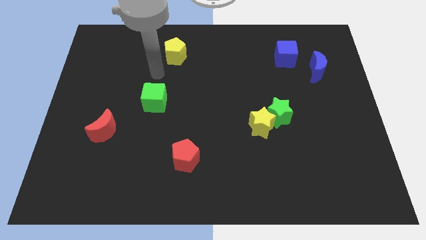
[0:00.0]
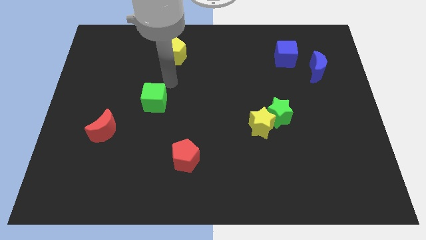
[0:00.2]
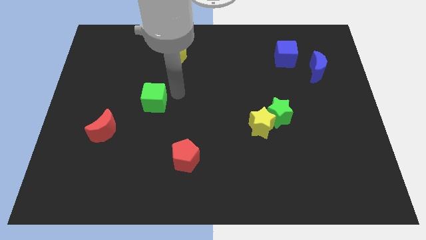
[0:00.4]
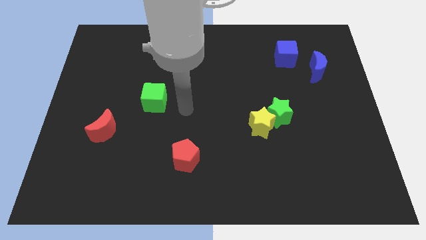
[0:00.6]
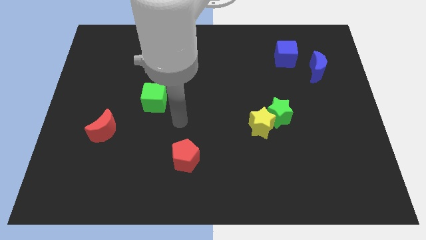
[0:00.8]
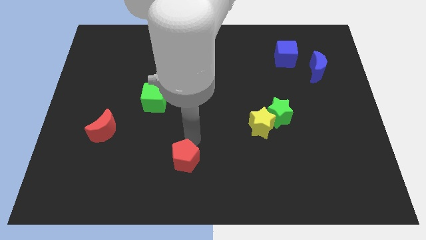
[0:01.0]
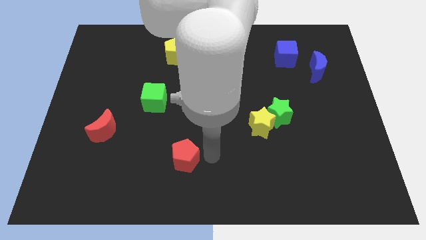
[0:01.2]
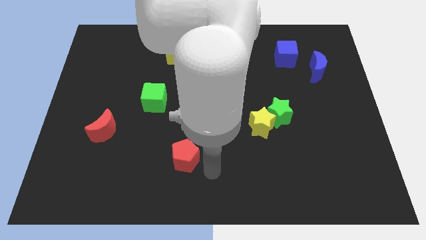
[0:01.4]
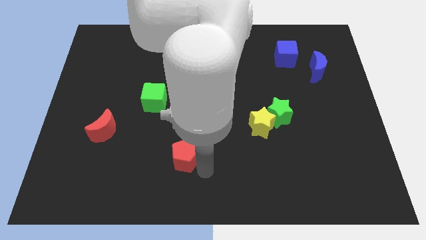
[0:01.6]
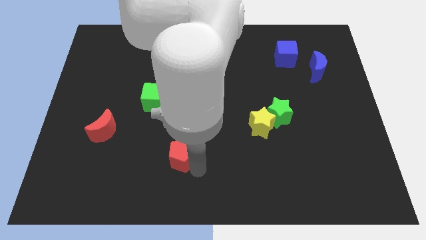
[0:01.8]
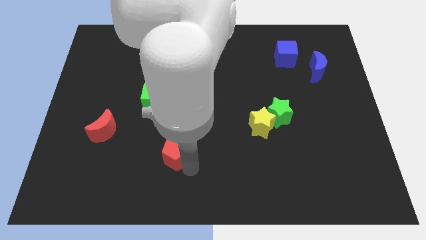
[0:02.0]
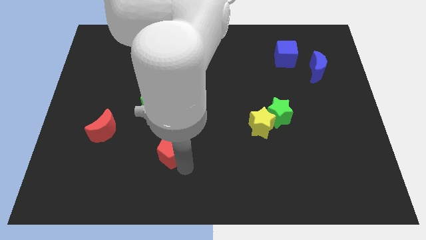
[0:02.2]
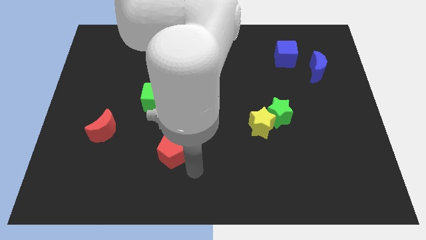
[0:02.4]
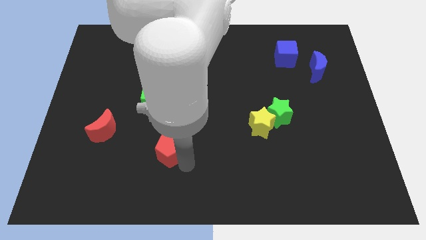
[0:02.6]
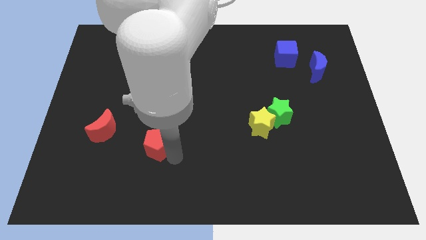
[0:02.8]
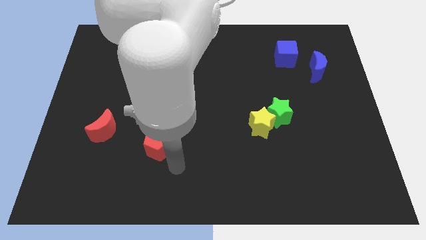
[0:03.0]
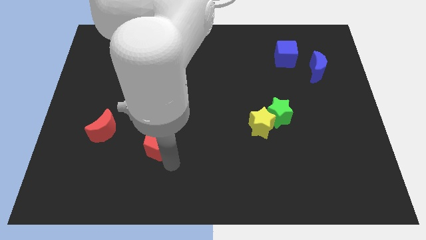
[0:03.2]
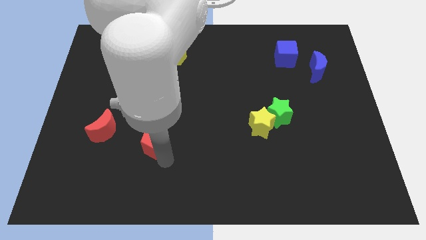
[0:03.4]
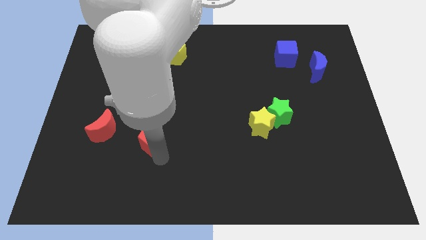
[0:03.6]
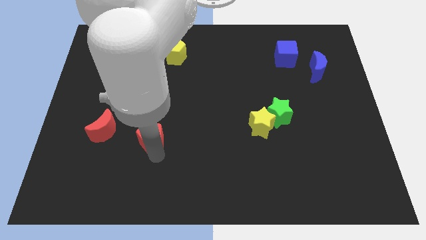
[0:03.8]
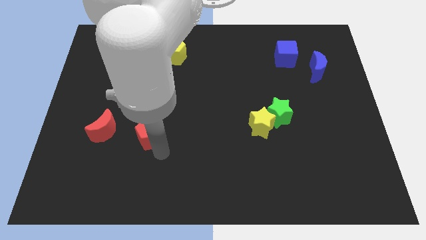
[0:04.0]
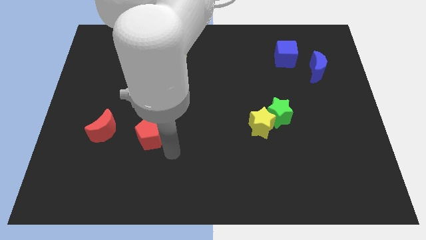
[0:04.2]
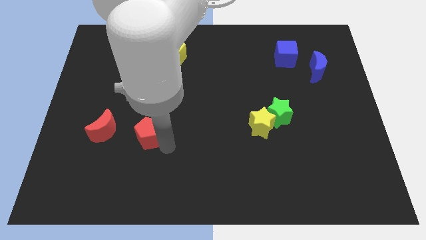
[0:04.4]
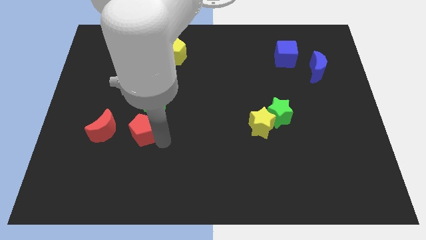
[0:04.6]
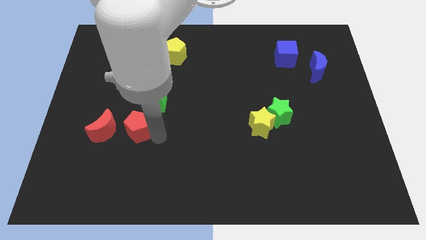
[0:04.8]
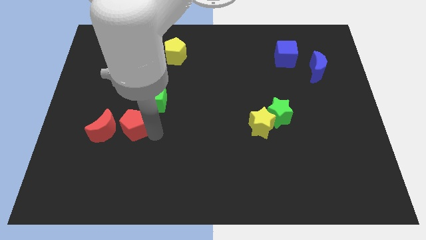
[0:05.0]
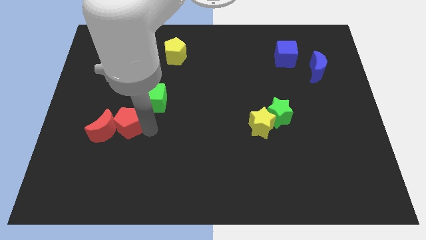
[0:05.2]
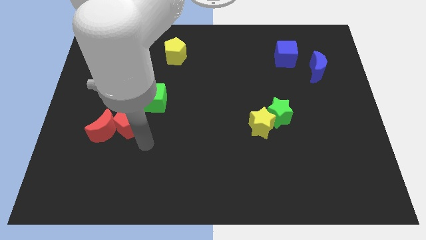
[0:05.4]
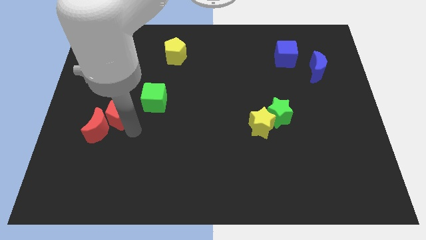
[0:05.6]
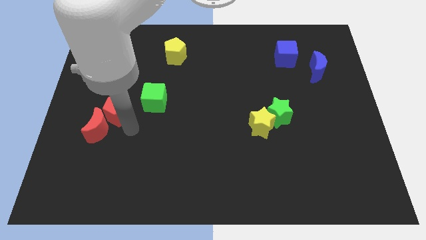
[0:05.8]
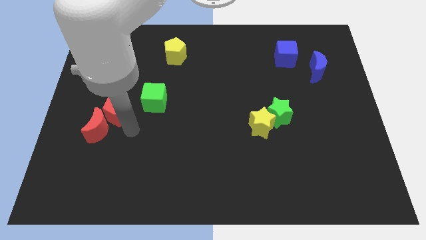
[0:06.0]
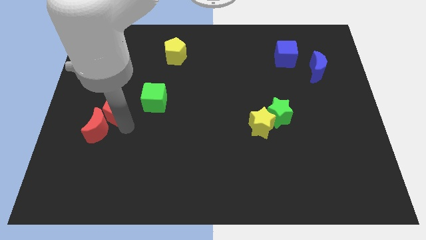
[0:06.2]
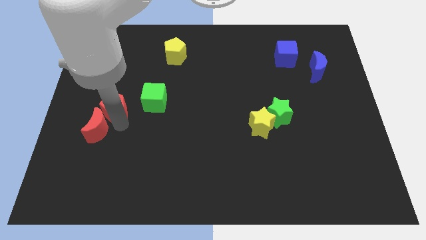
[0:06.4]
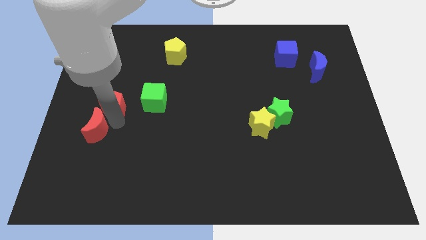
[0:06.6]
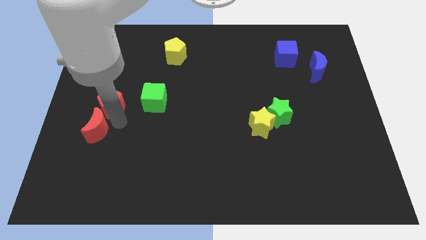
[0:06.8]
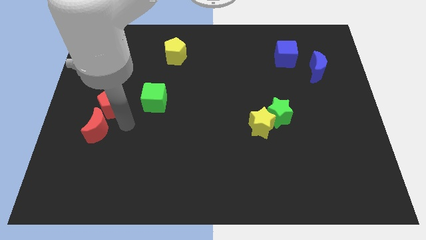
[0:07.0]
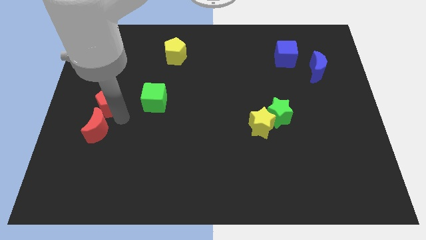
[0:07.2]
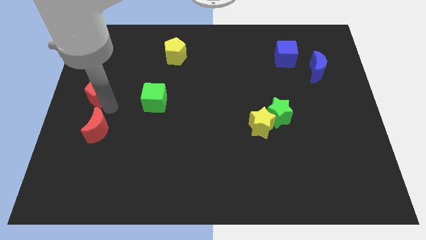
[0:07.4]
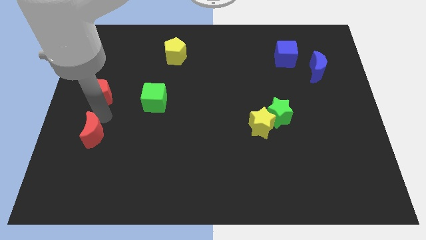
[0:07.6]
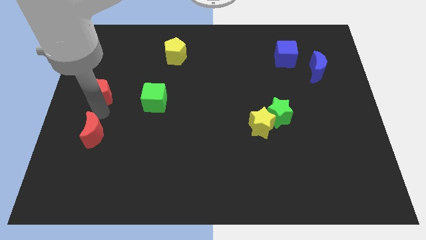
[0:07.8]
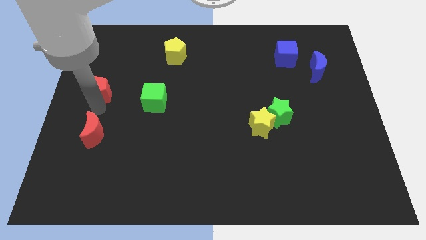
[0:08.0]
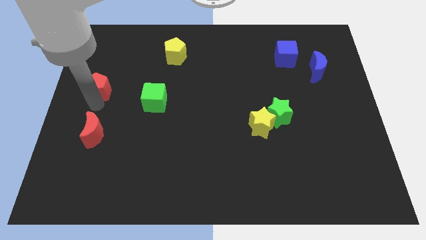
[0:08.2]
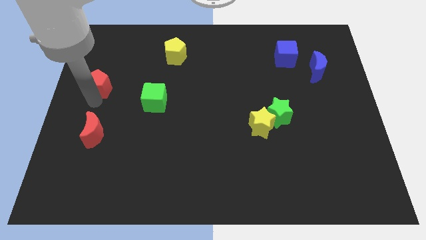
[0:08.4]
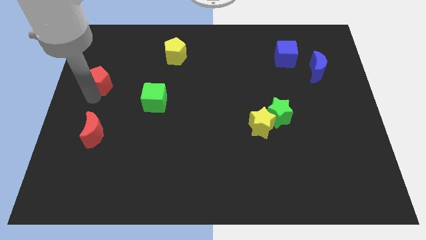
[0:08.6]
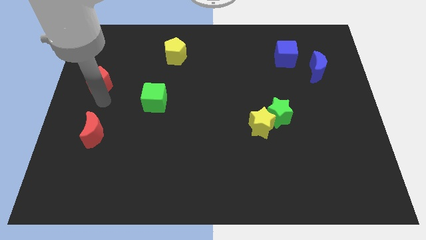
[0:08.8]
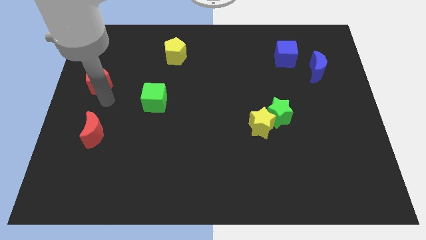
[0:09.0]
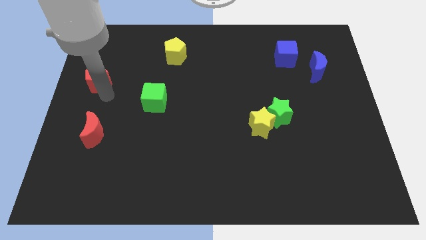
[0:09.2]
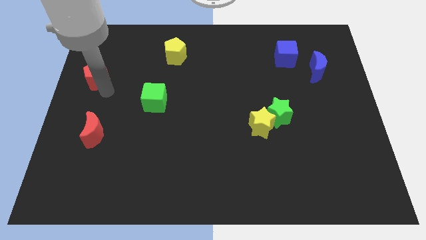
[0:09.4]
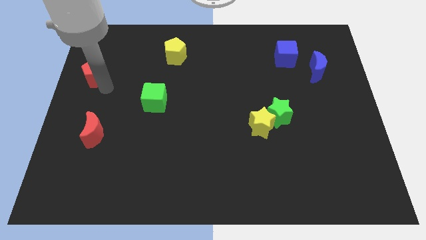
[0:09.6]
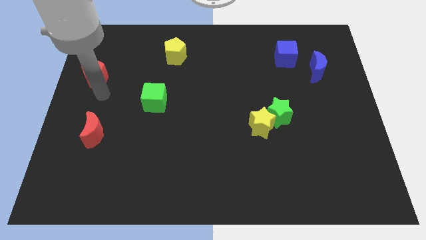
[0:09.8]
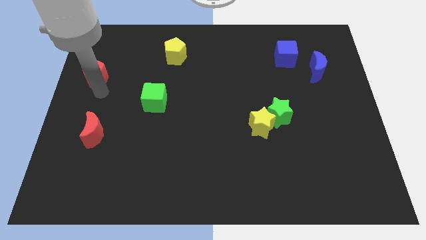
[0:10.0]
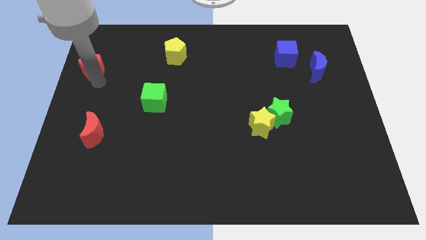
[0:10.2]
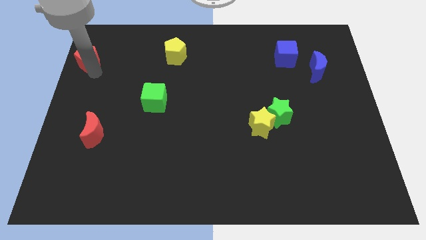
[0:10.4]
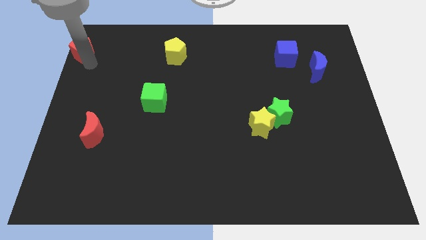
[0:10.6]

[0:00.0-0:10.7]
slide the red pentagon to the top left

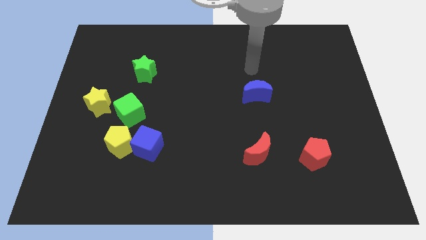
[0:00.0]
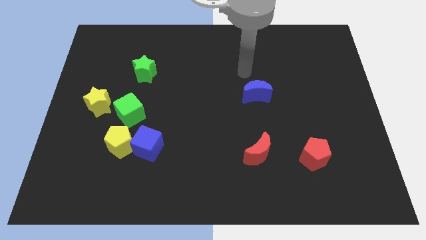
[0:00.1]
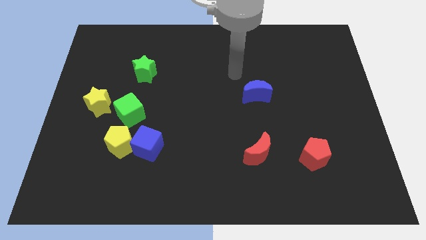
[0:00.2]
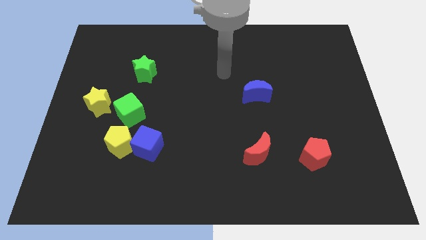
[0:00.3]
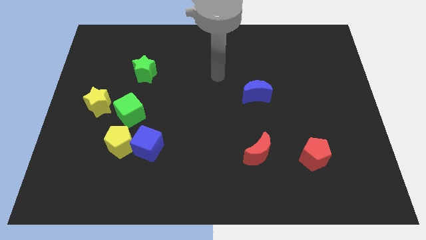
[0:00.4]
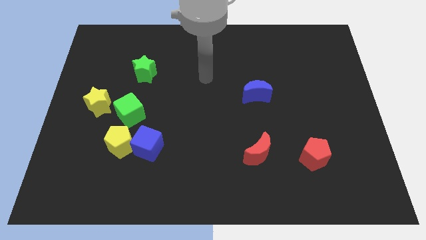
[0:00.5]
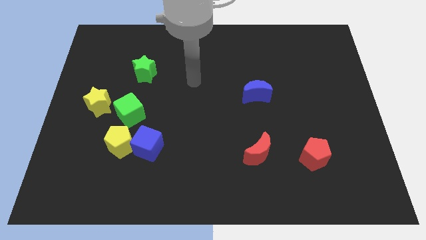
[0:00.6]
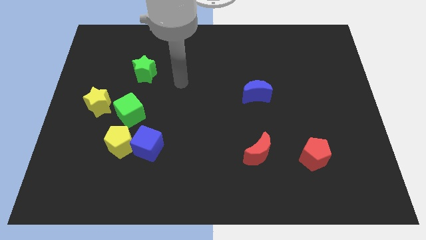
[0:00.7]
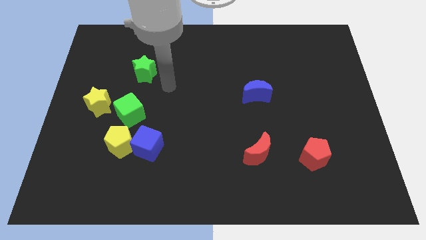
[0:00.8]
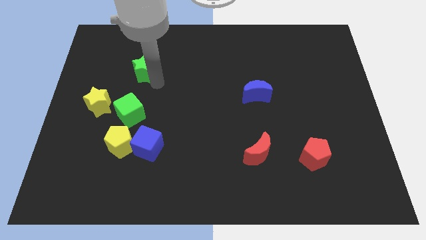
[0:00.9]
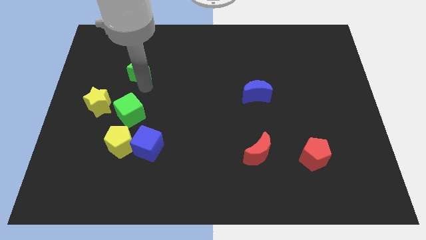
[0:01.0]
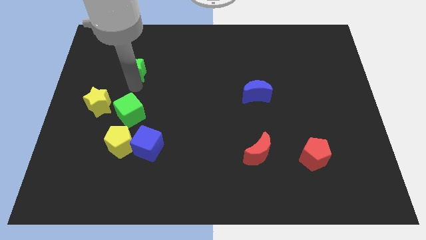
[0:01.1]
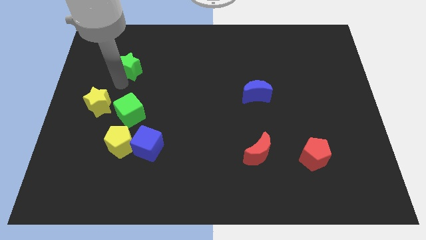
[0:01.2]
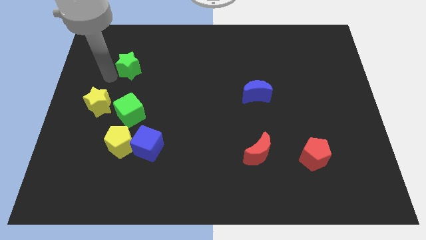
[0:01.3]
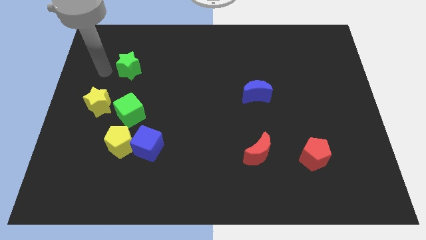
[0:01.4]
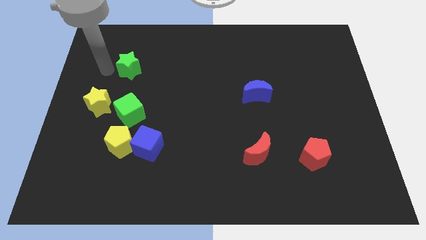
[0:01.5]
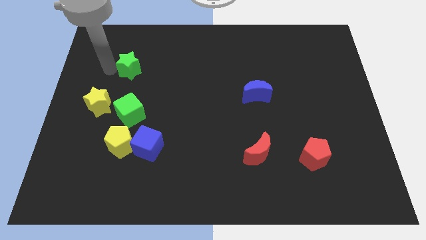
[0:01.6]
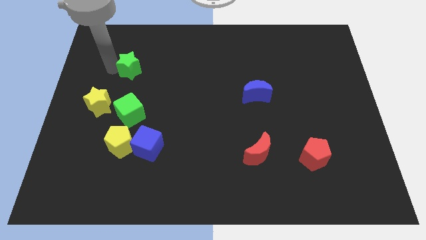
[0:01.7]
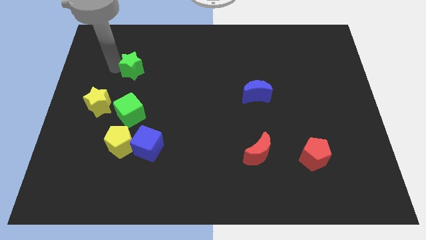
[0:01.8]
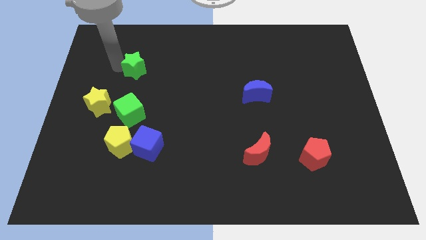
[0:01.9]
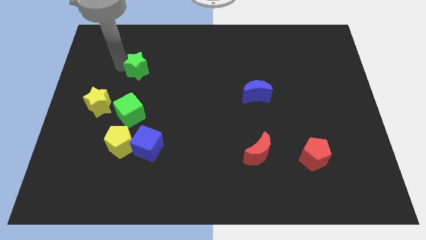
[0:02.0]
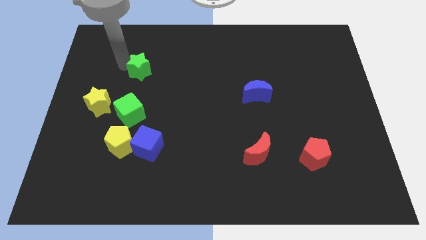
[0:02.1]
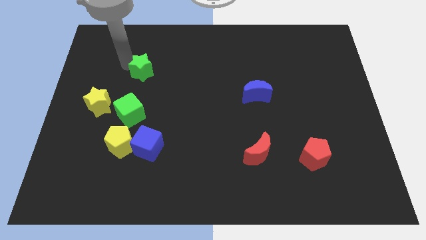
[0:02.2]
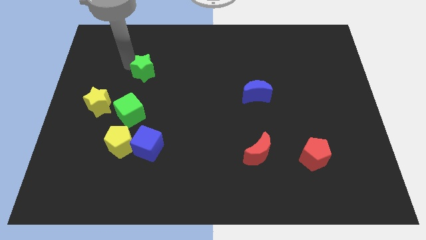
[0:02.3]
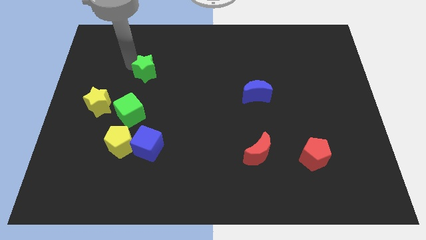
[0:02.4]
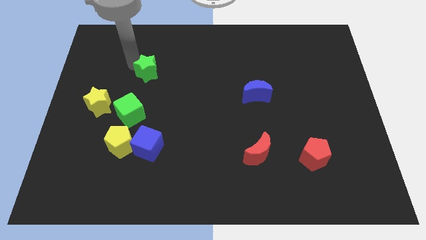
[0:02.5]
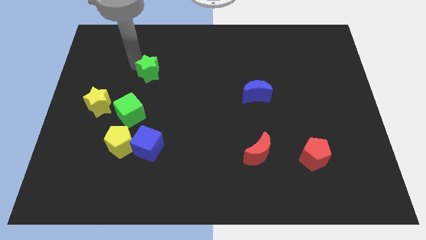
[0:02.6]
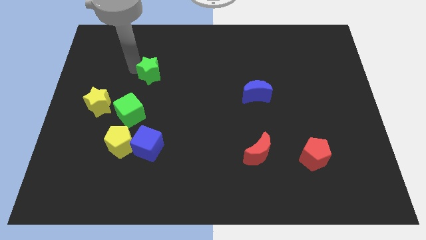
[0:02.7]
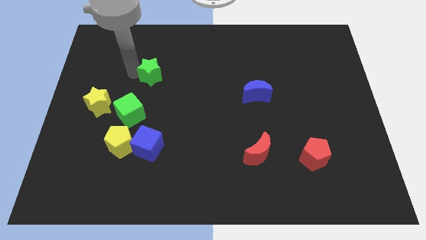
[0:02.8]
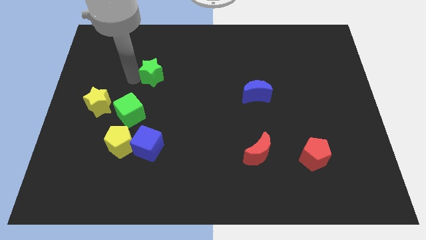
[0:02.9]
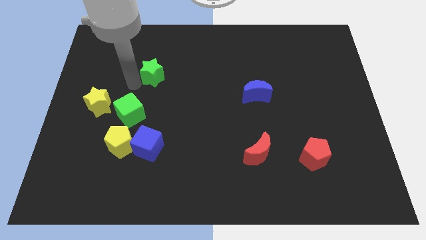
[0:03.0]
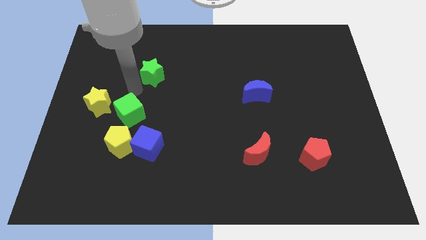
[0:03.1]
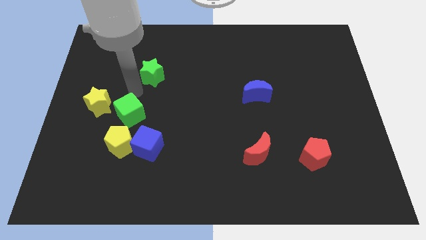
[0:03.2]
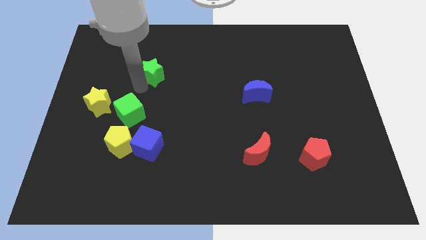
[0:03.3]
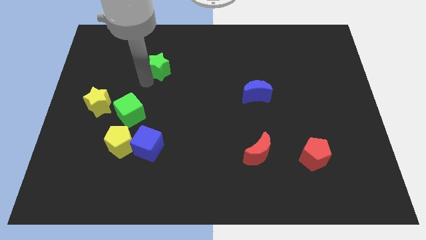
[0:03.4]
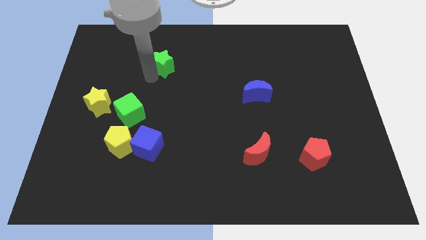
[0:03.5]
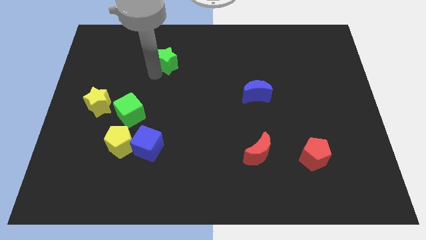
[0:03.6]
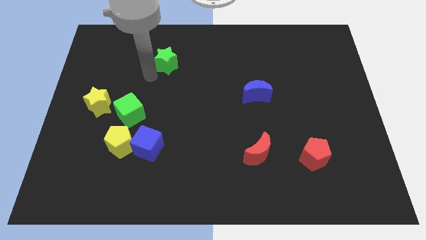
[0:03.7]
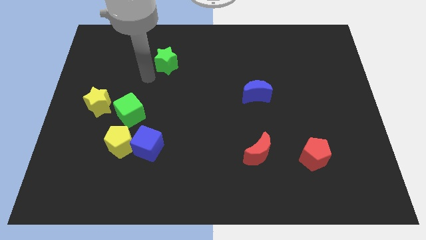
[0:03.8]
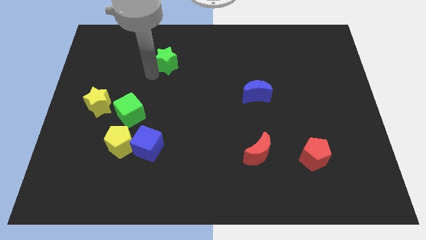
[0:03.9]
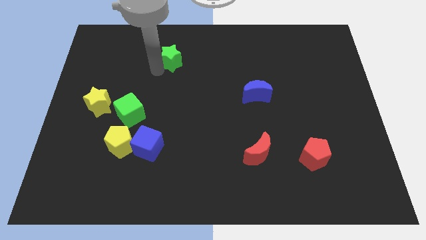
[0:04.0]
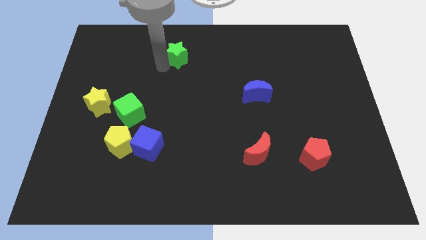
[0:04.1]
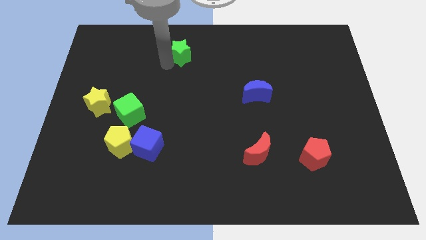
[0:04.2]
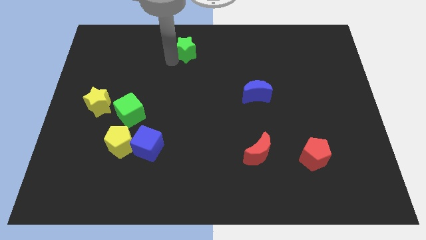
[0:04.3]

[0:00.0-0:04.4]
move the green star to the top
